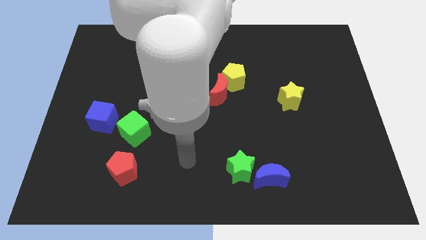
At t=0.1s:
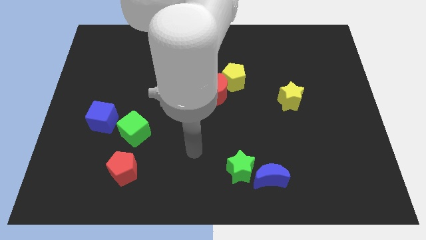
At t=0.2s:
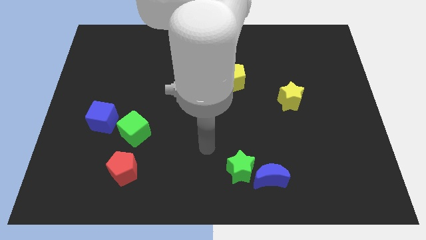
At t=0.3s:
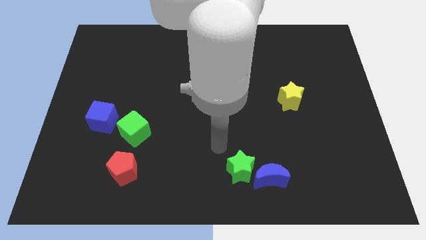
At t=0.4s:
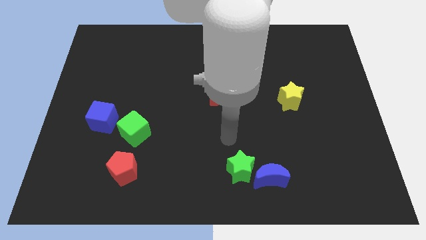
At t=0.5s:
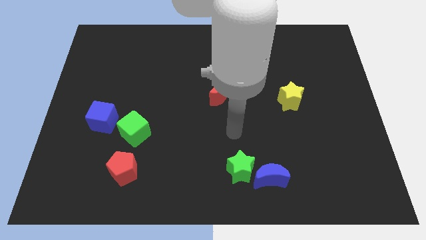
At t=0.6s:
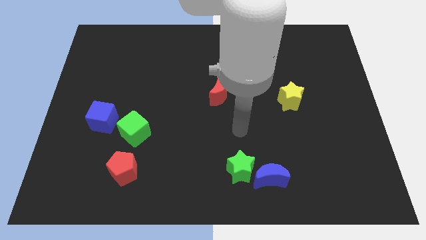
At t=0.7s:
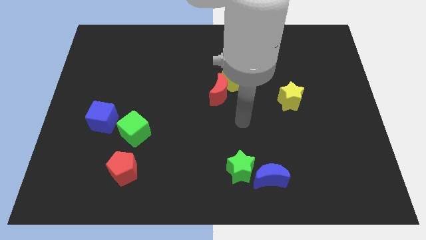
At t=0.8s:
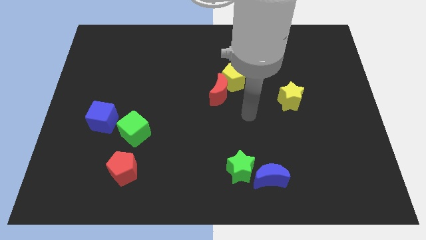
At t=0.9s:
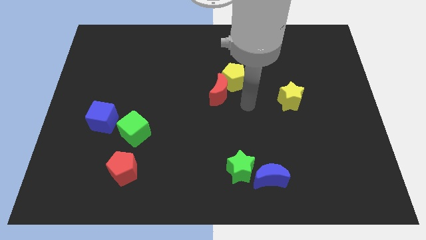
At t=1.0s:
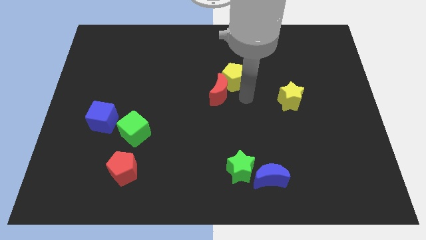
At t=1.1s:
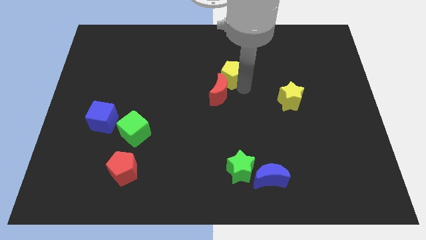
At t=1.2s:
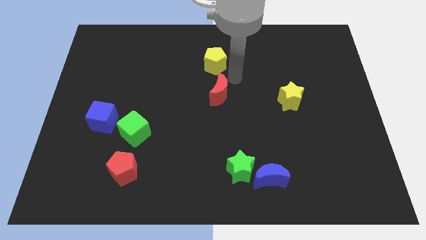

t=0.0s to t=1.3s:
separate the red moon from the yellow pentagon

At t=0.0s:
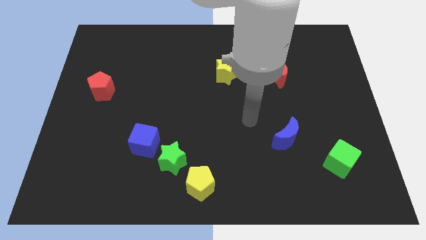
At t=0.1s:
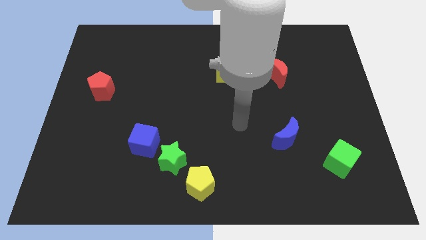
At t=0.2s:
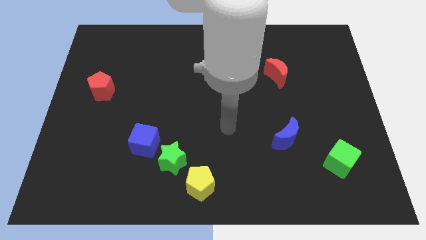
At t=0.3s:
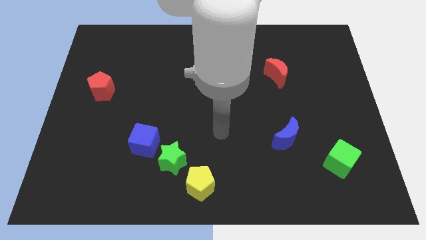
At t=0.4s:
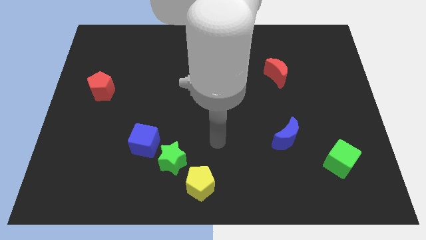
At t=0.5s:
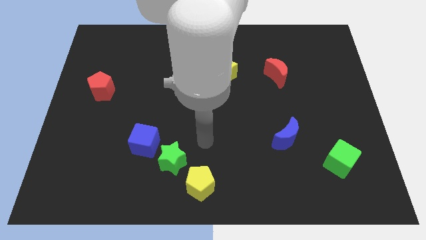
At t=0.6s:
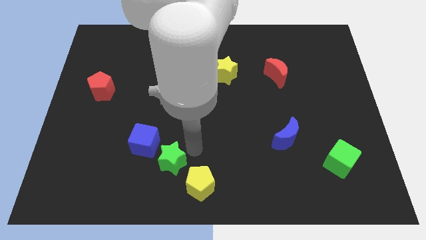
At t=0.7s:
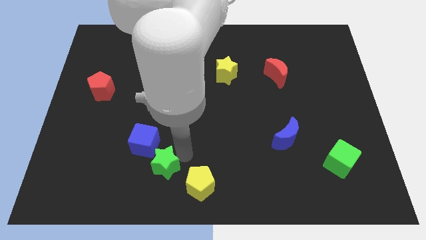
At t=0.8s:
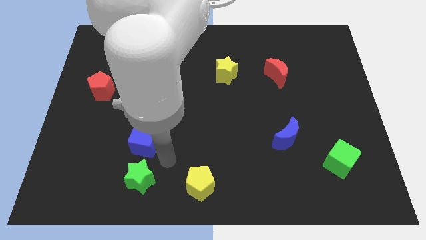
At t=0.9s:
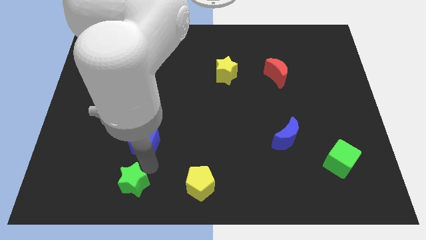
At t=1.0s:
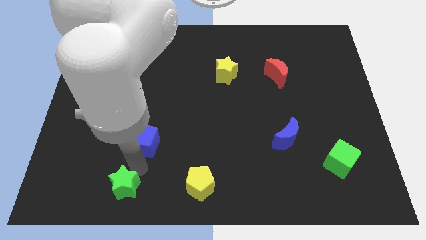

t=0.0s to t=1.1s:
move the blue cube away from the green star

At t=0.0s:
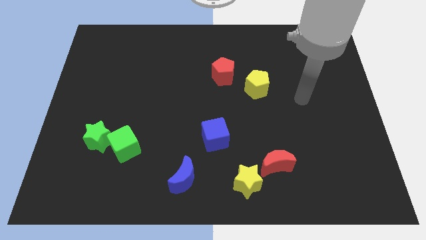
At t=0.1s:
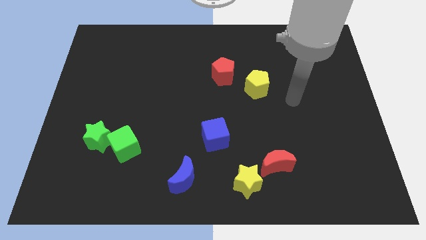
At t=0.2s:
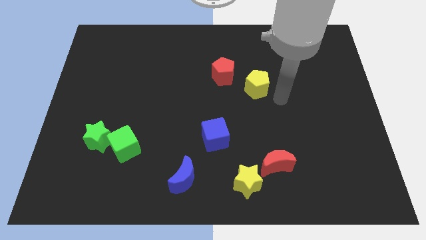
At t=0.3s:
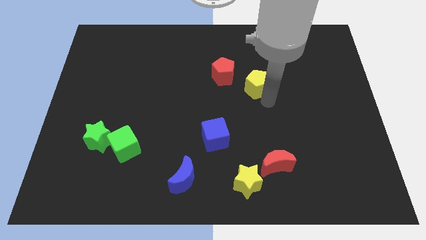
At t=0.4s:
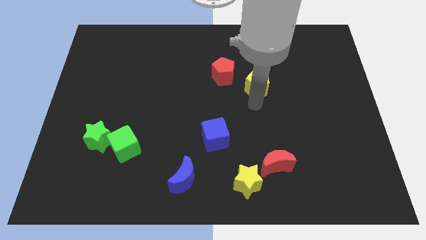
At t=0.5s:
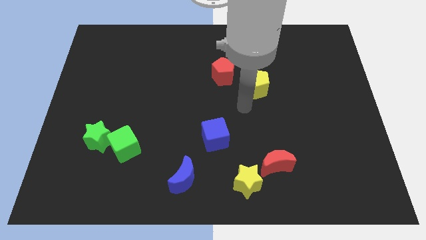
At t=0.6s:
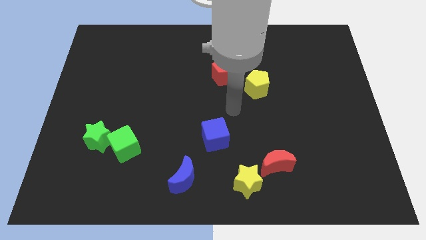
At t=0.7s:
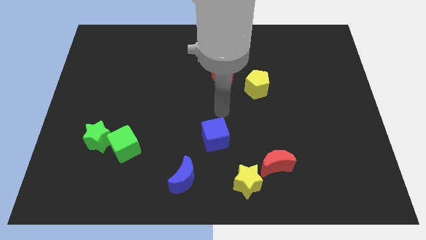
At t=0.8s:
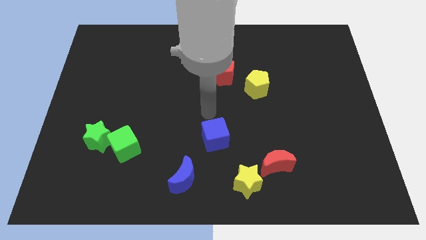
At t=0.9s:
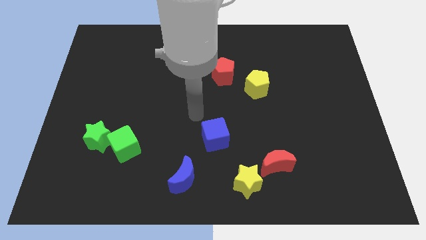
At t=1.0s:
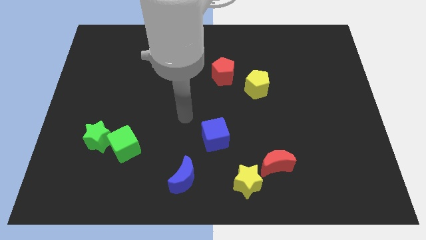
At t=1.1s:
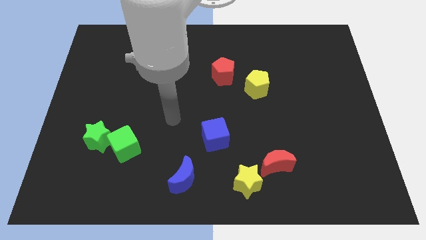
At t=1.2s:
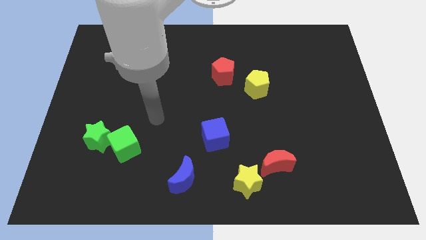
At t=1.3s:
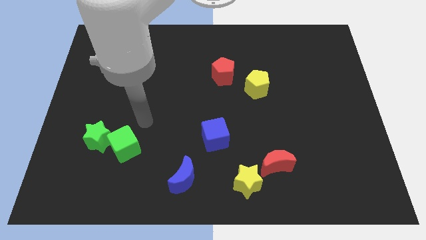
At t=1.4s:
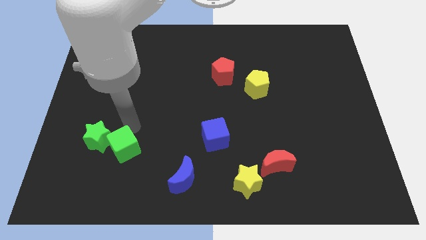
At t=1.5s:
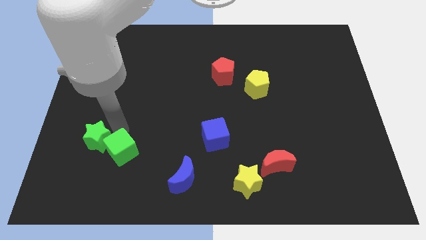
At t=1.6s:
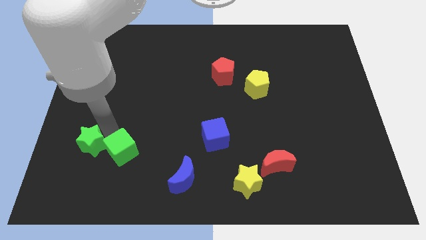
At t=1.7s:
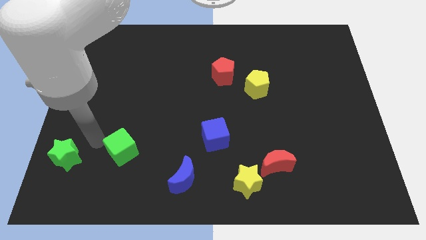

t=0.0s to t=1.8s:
separate the green cube from the green star

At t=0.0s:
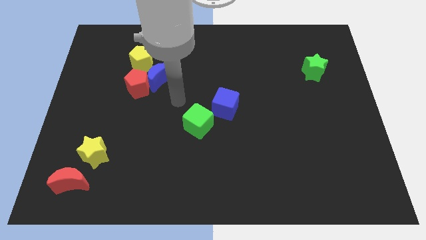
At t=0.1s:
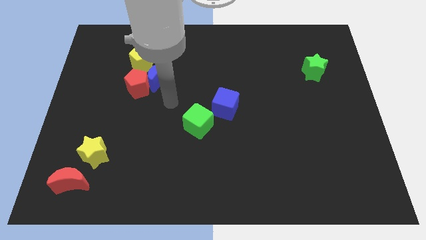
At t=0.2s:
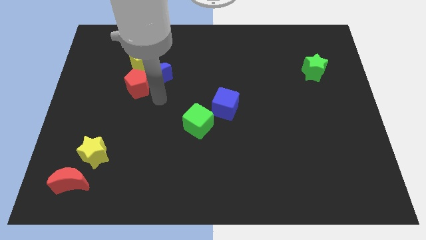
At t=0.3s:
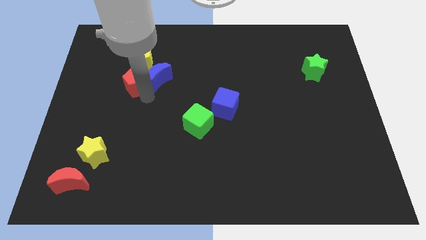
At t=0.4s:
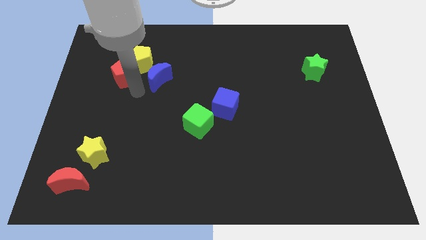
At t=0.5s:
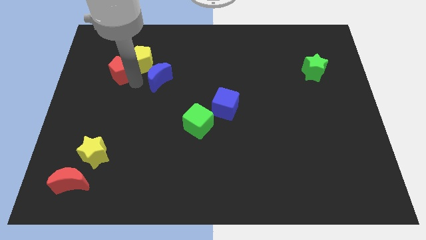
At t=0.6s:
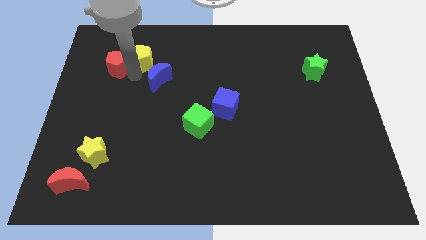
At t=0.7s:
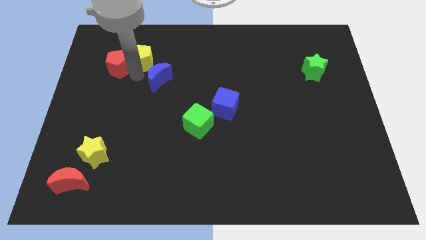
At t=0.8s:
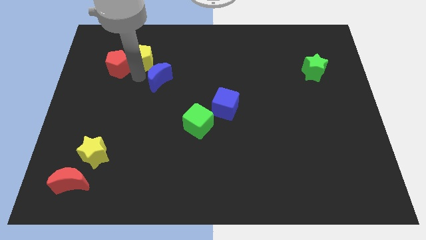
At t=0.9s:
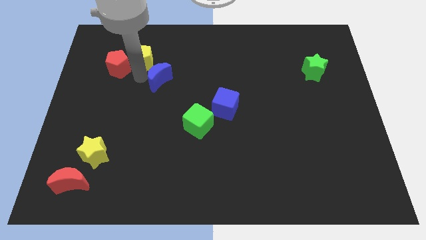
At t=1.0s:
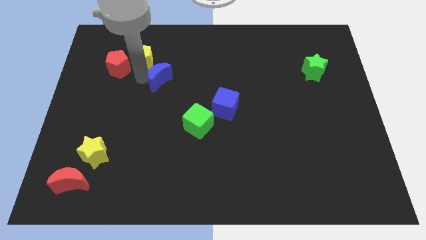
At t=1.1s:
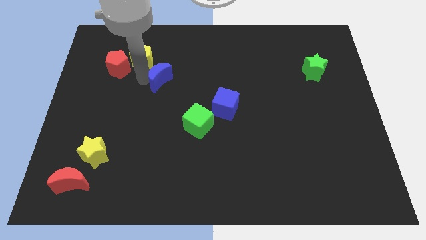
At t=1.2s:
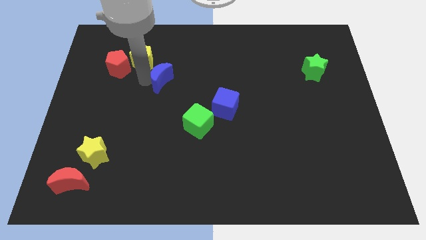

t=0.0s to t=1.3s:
move the blue moon away from the red pentagon and yellow pentagon

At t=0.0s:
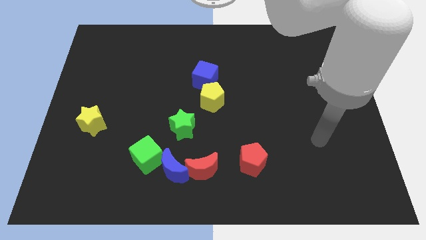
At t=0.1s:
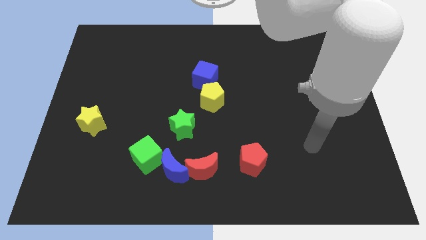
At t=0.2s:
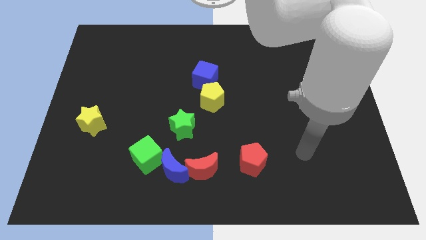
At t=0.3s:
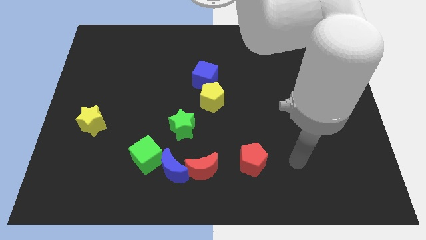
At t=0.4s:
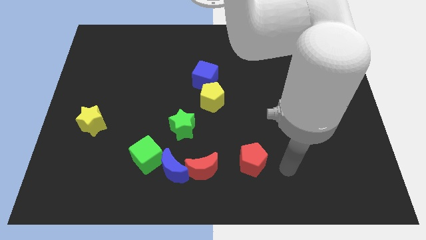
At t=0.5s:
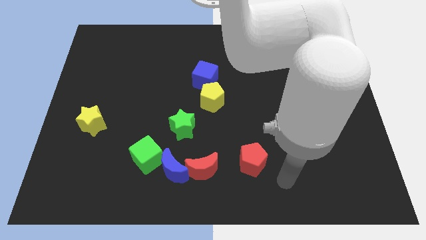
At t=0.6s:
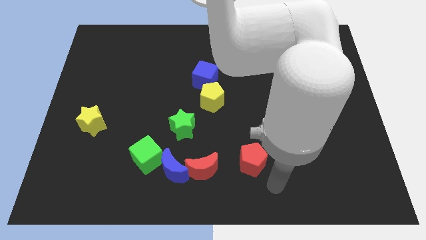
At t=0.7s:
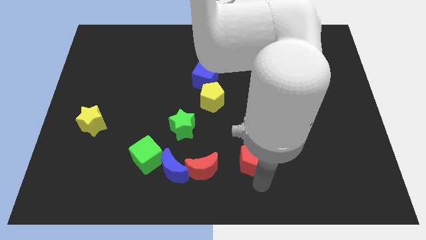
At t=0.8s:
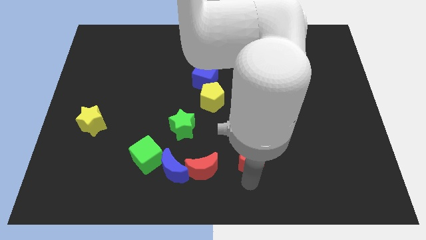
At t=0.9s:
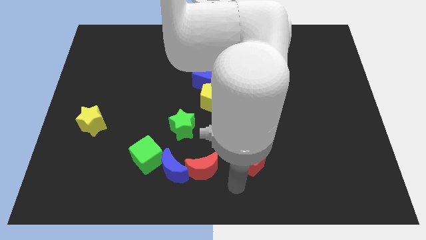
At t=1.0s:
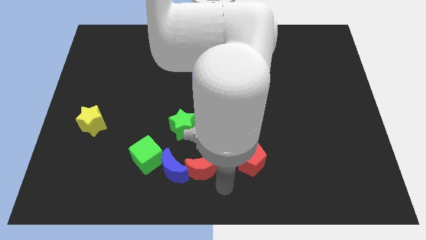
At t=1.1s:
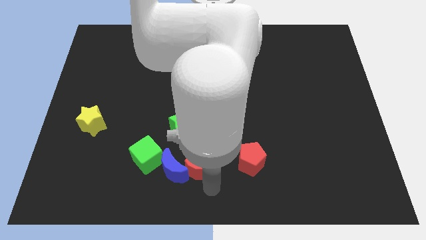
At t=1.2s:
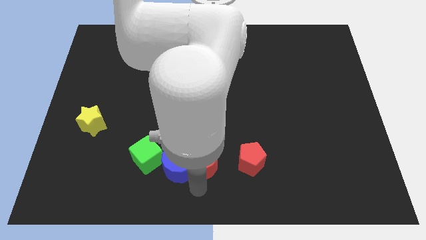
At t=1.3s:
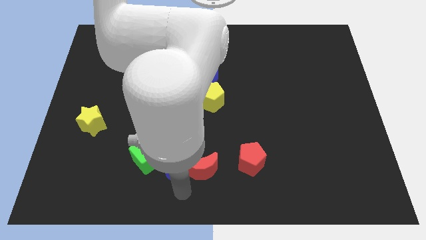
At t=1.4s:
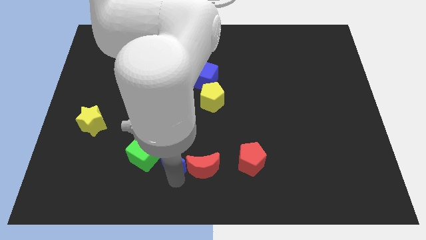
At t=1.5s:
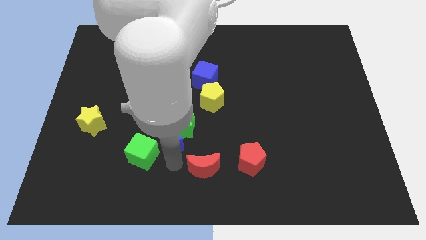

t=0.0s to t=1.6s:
move the red moon away from the blue moon

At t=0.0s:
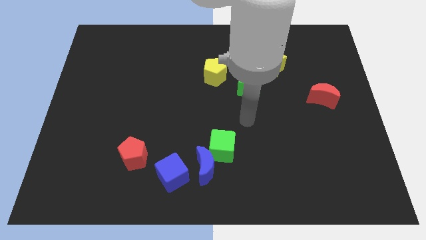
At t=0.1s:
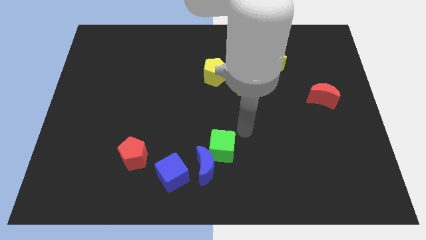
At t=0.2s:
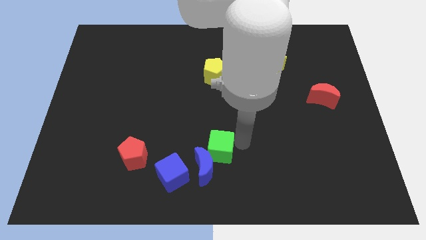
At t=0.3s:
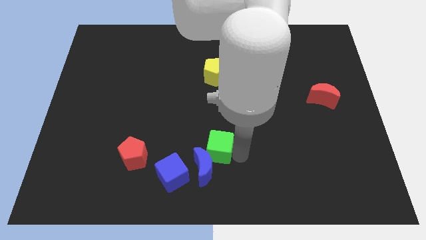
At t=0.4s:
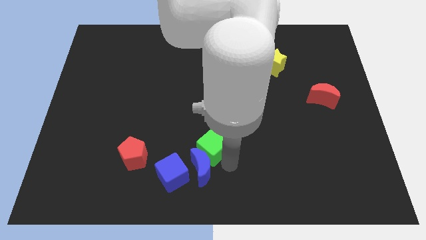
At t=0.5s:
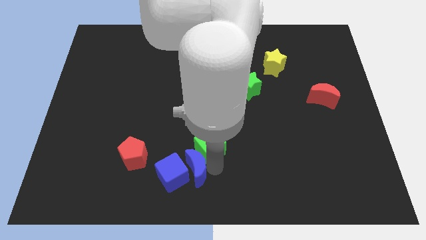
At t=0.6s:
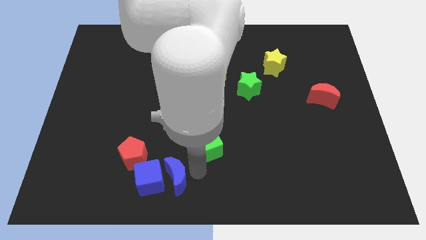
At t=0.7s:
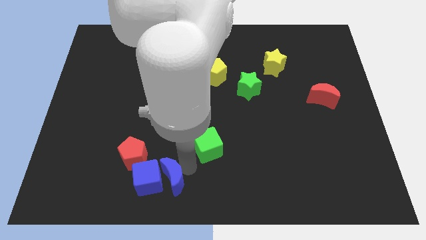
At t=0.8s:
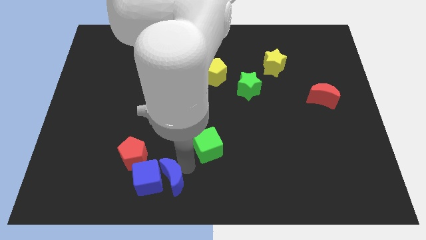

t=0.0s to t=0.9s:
move the green cube away from the blue moon

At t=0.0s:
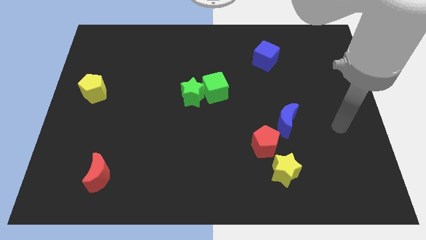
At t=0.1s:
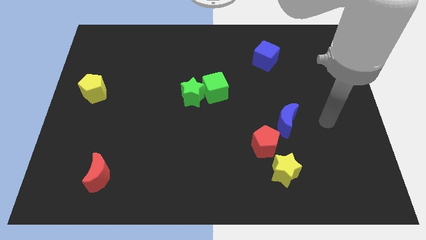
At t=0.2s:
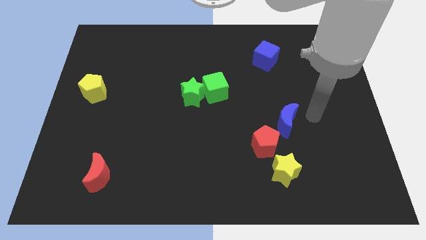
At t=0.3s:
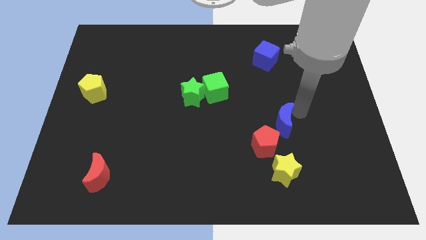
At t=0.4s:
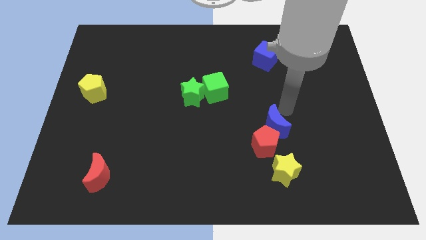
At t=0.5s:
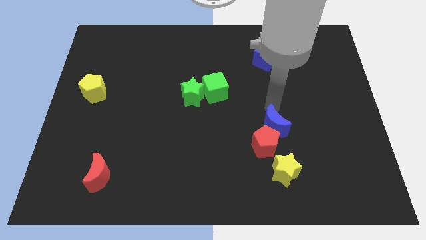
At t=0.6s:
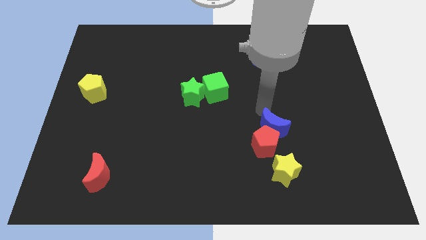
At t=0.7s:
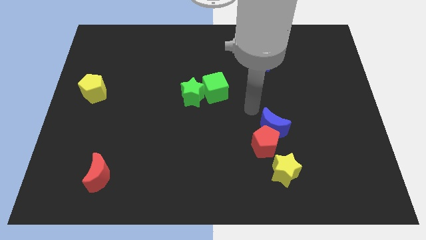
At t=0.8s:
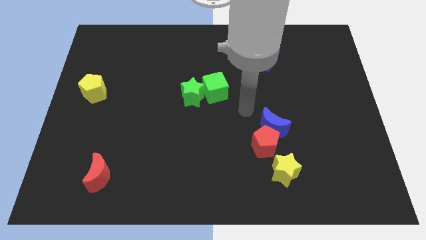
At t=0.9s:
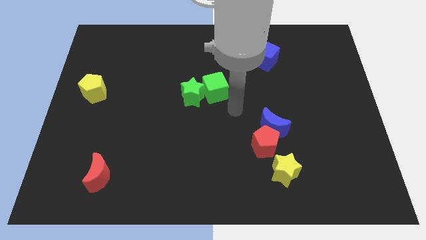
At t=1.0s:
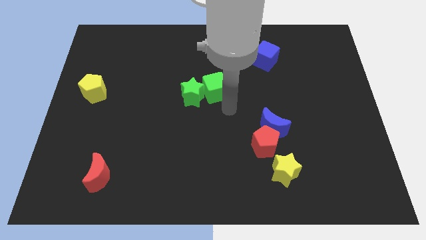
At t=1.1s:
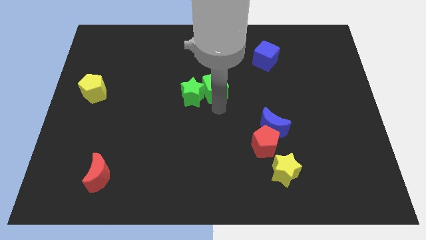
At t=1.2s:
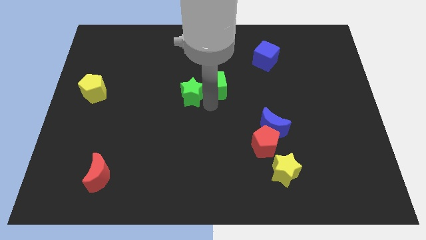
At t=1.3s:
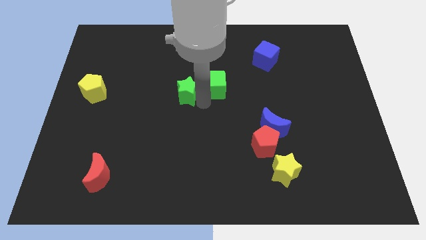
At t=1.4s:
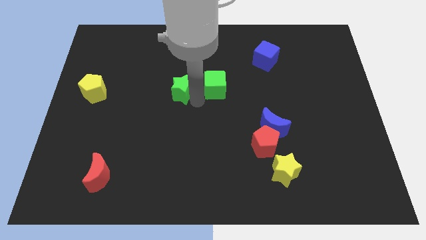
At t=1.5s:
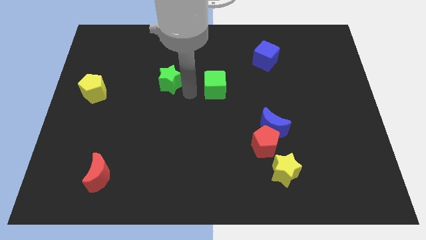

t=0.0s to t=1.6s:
move the green cube away from the green star
